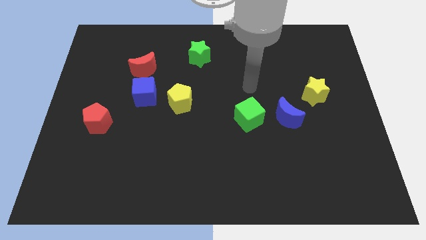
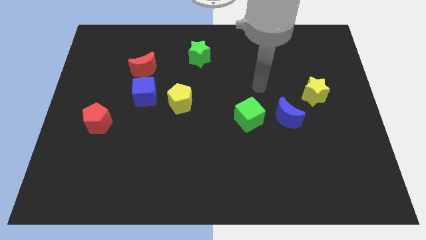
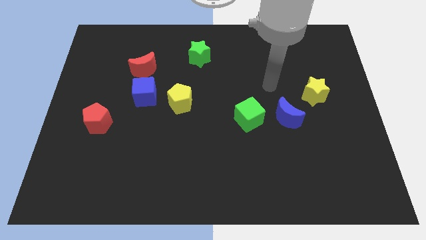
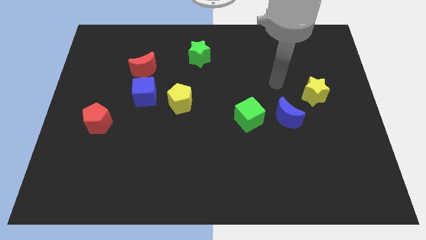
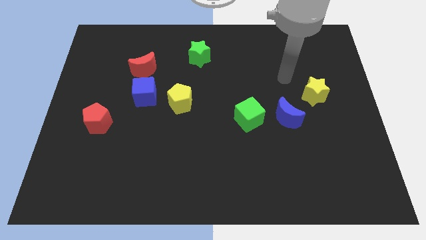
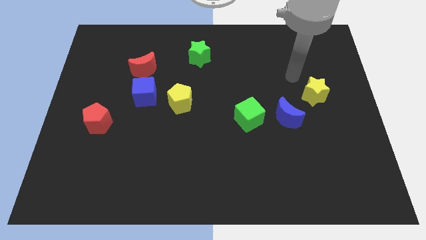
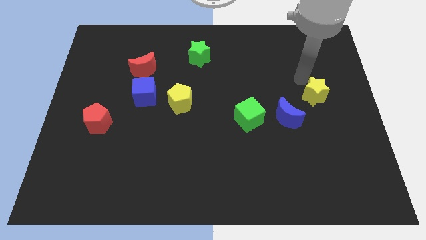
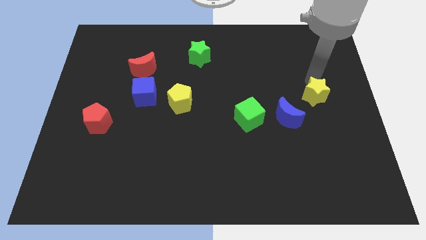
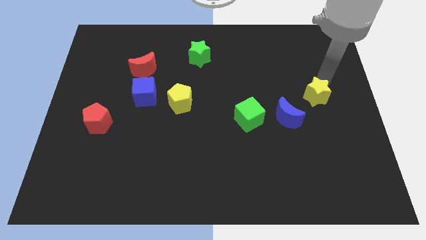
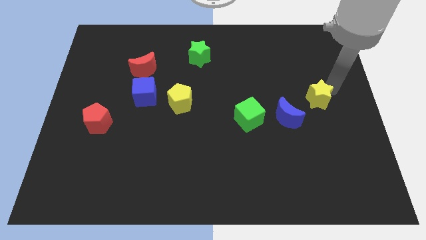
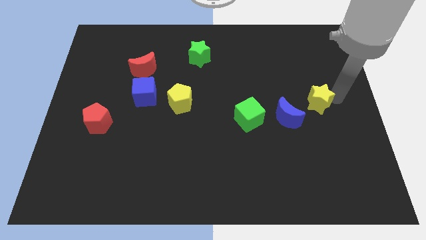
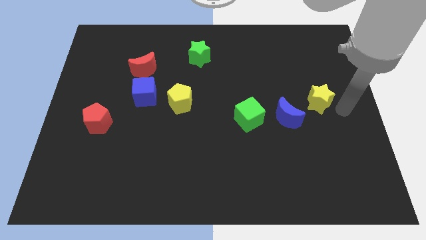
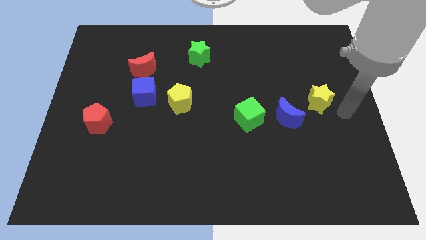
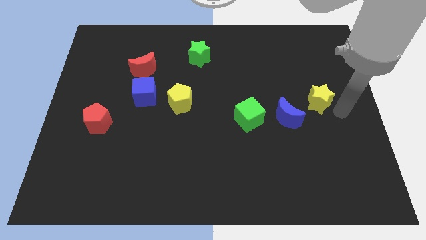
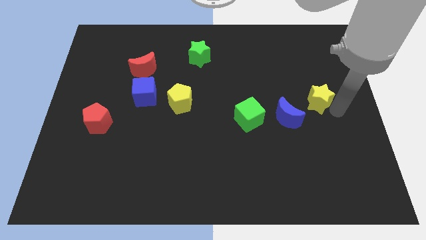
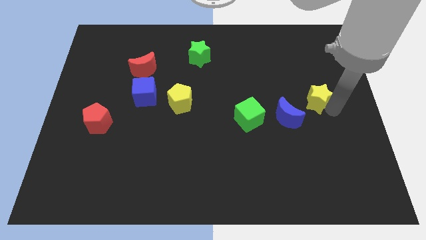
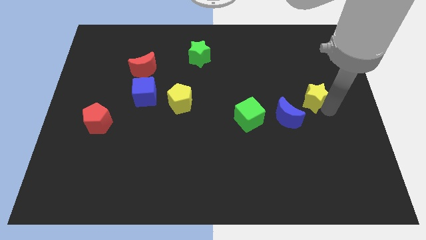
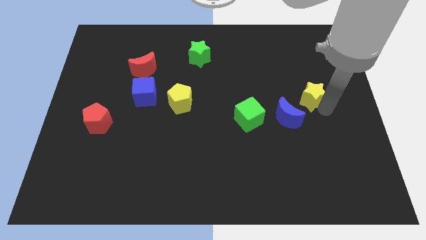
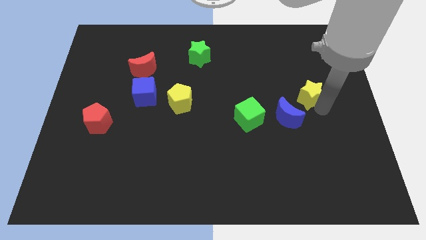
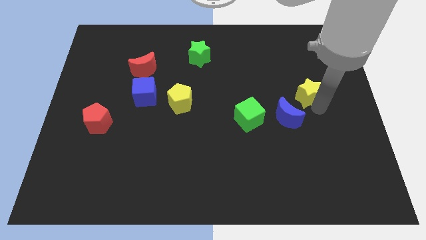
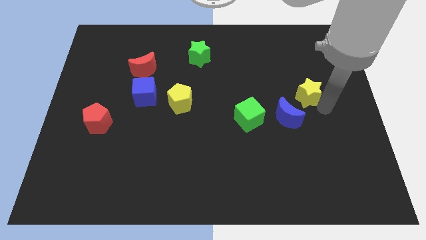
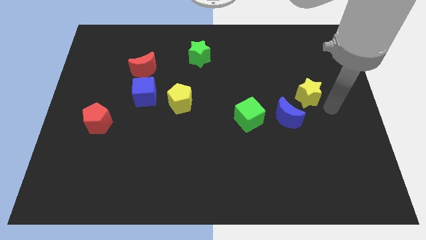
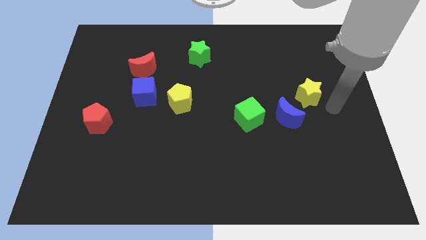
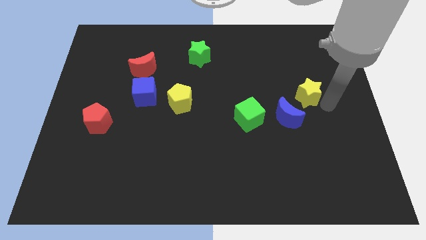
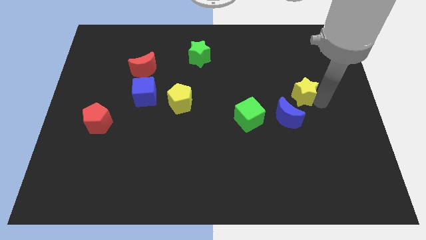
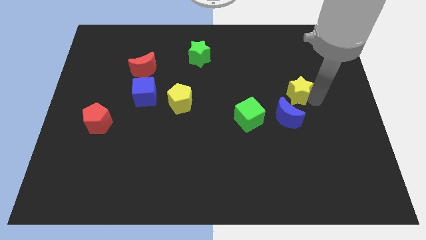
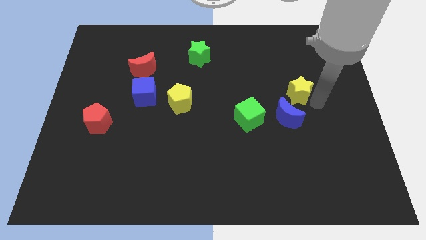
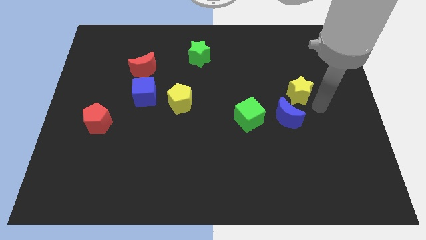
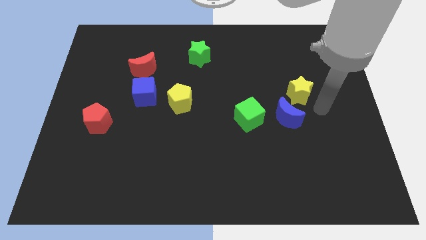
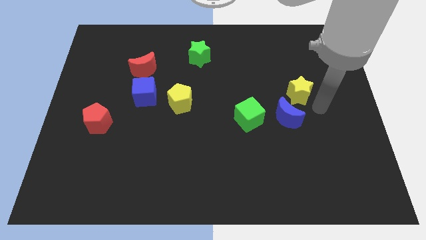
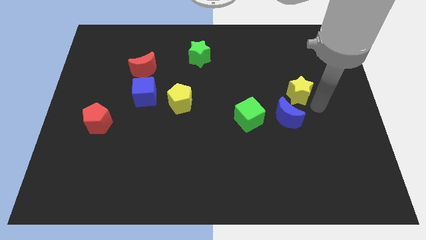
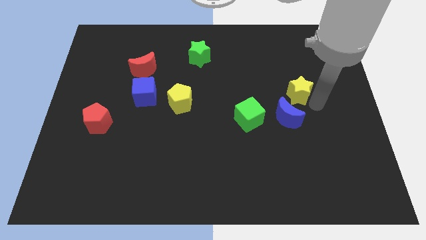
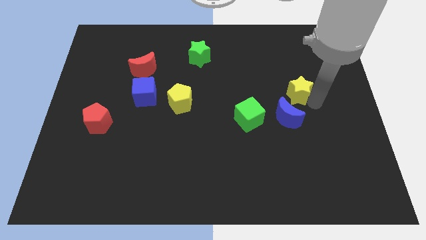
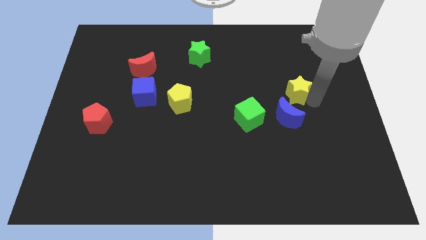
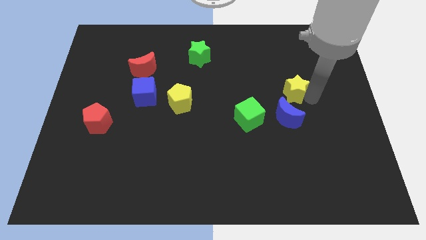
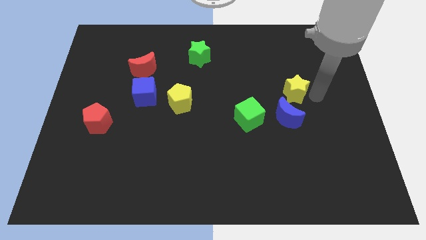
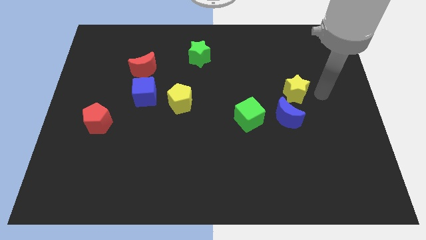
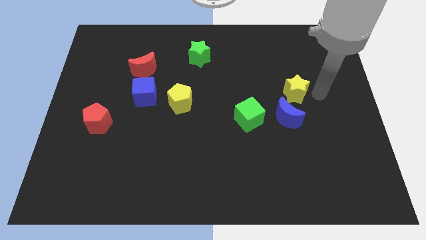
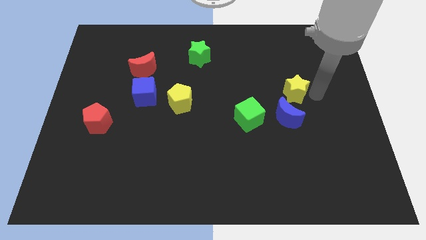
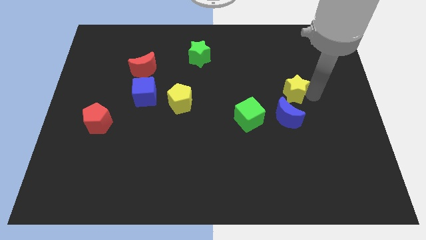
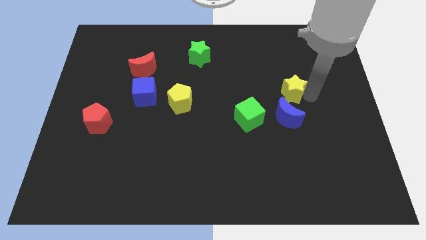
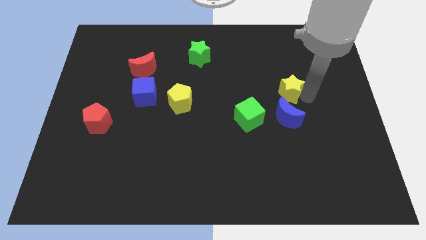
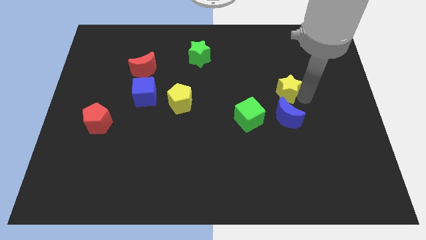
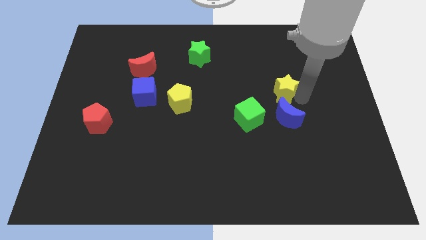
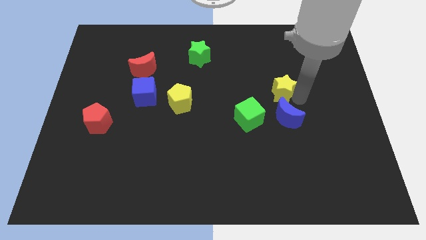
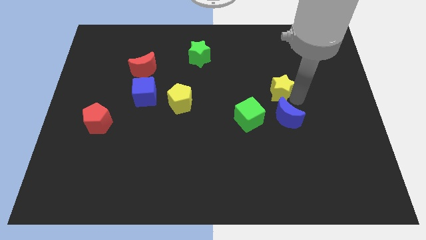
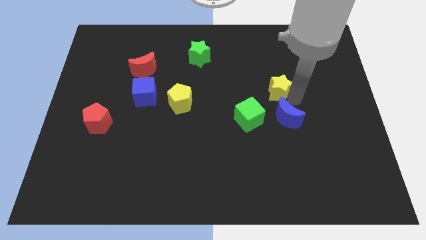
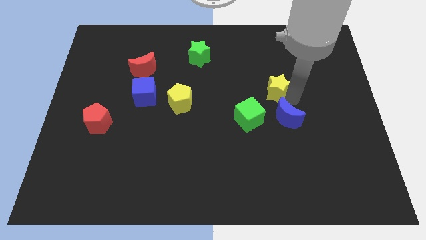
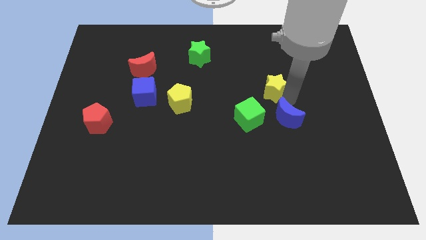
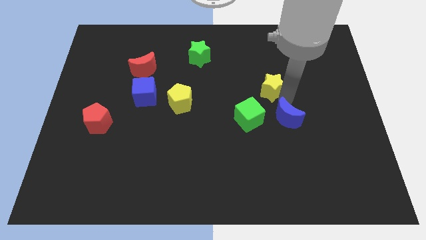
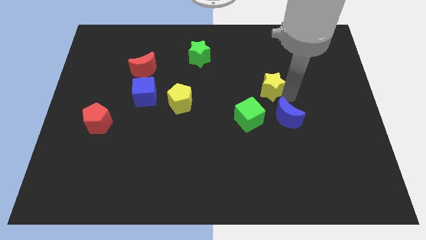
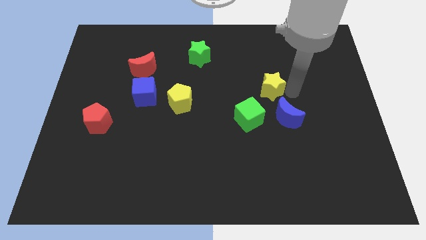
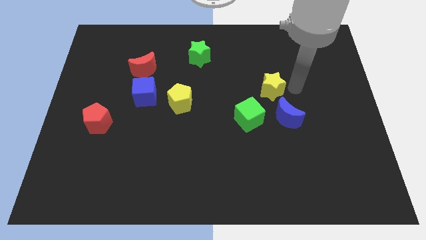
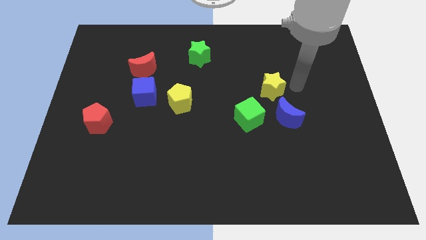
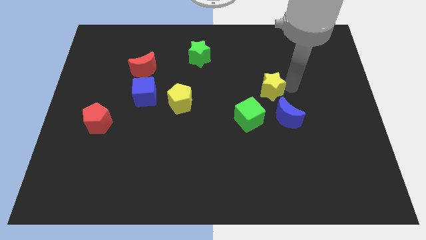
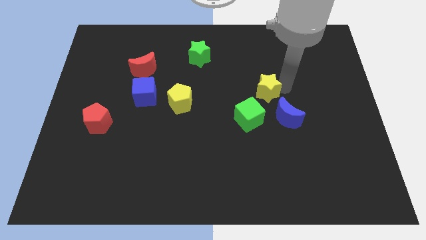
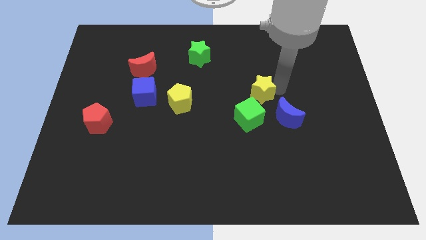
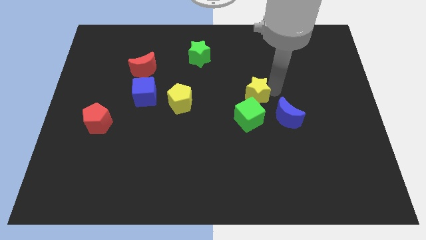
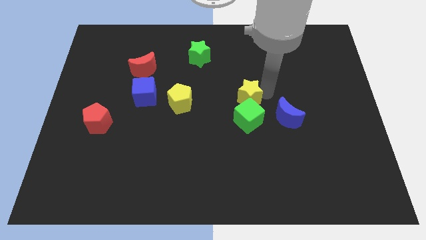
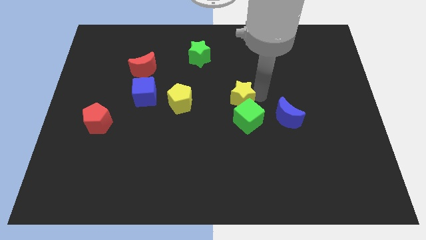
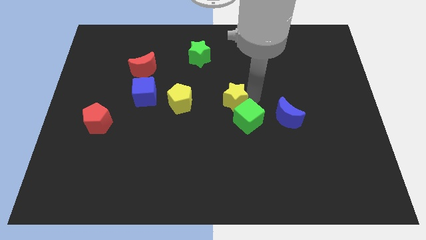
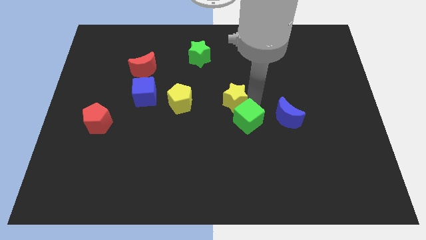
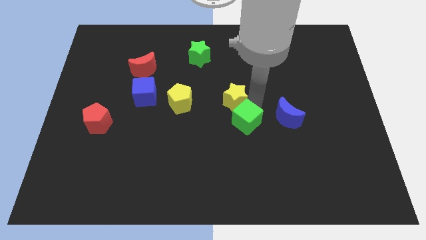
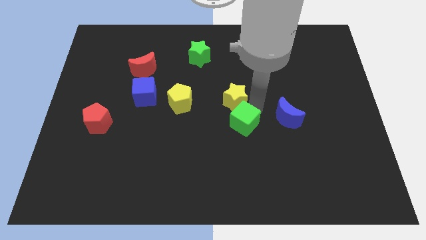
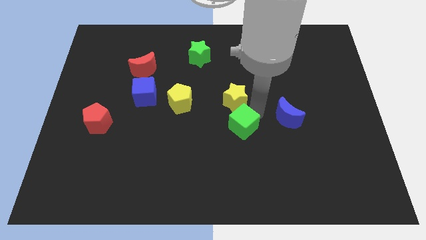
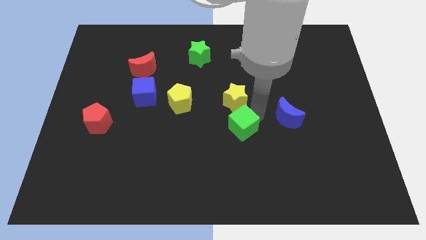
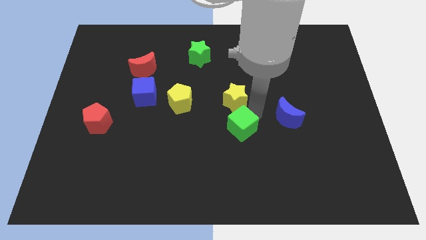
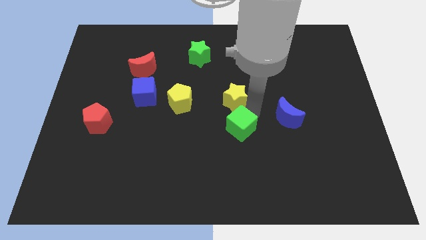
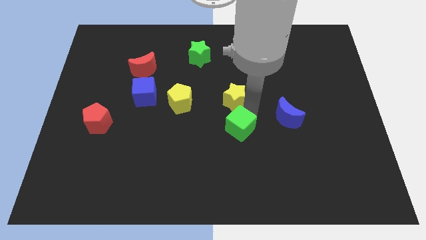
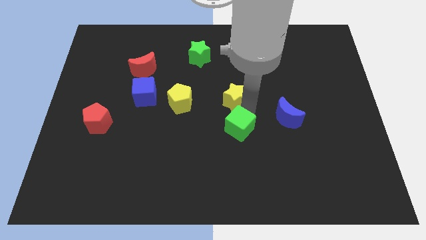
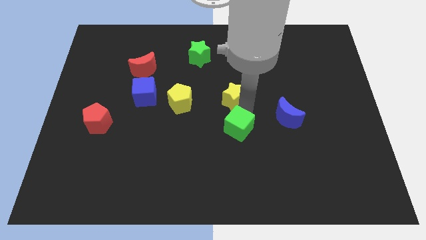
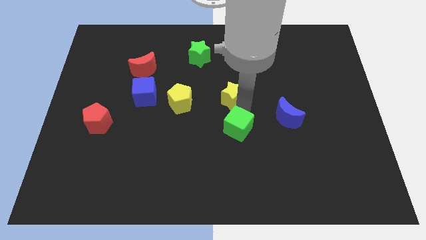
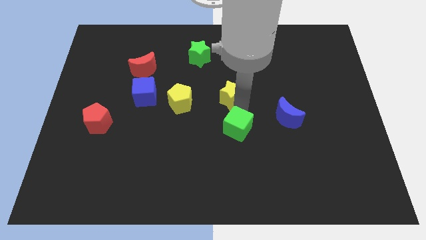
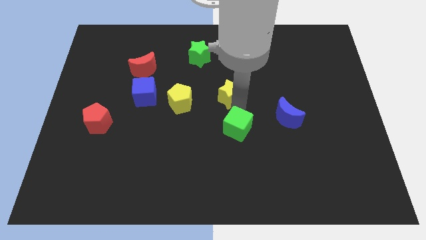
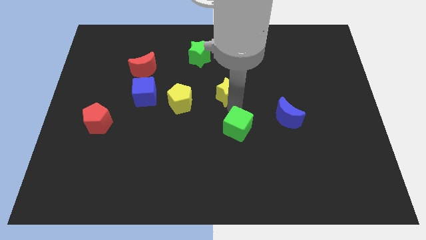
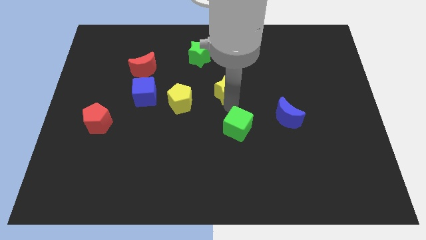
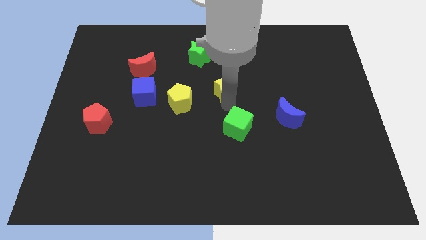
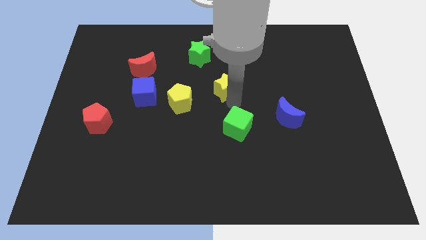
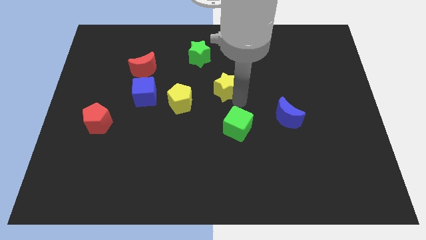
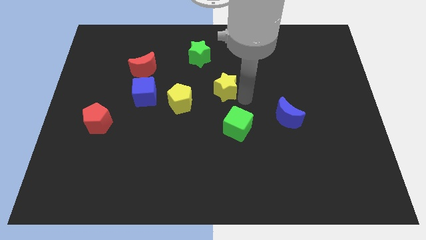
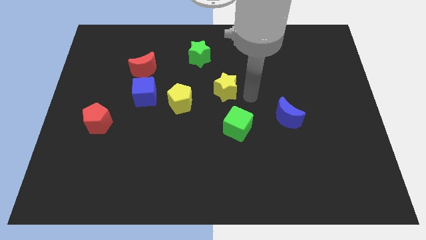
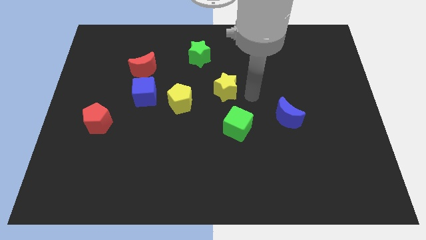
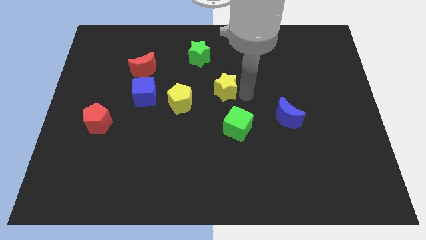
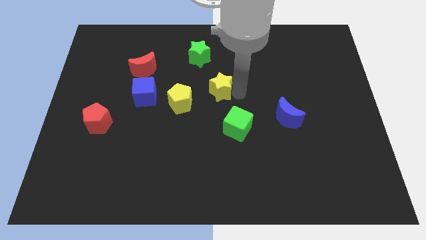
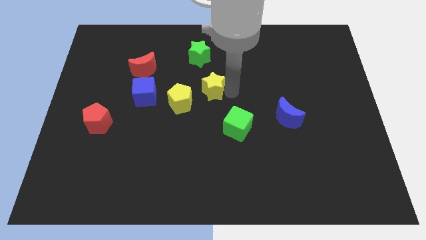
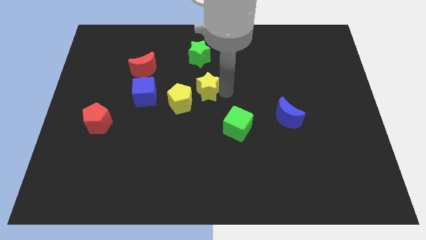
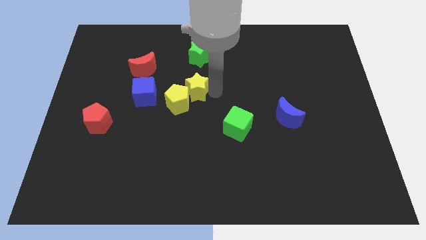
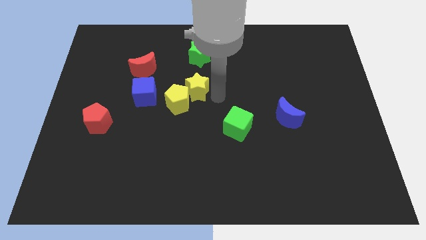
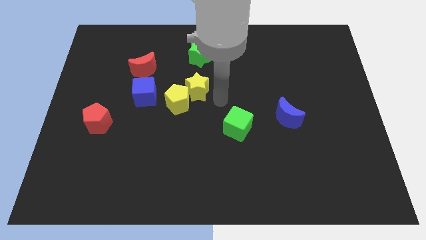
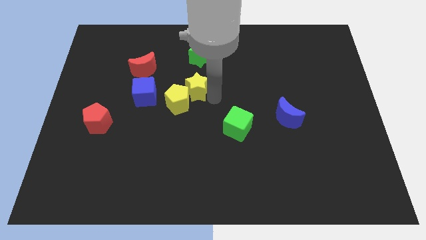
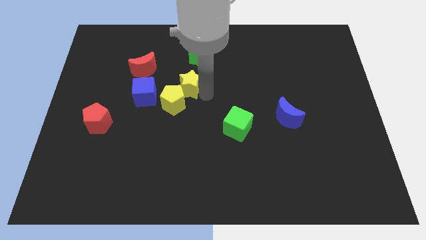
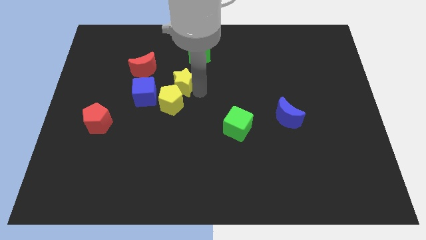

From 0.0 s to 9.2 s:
move the yellow star diagonally up and to the right of the blue cube
